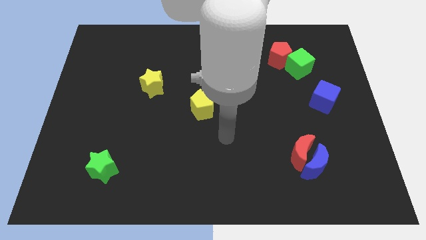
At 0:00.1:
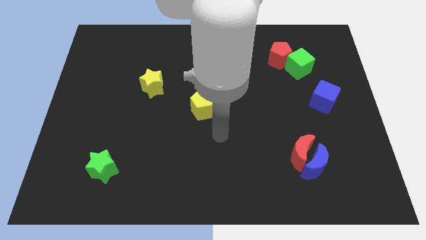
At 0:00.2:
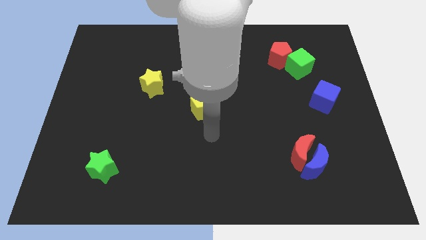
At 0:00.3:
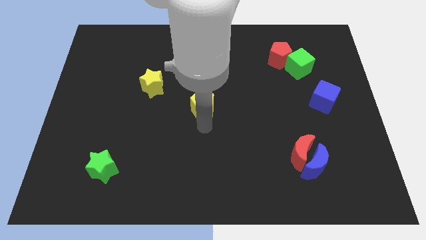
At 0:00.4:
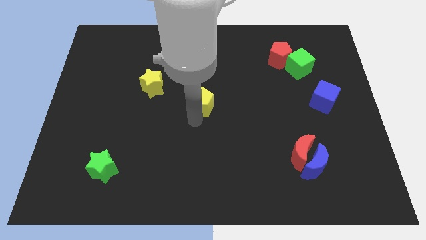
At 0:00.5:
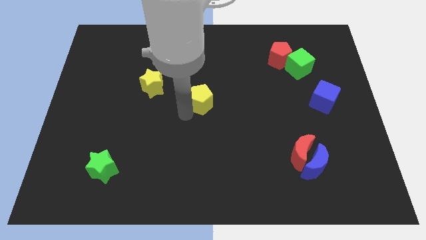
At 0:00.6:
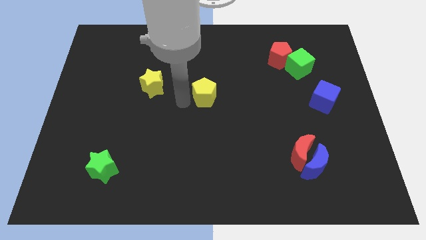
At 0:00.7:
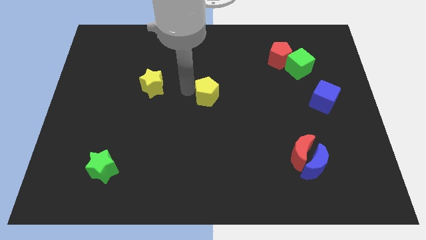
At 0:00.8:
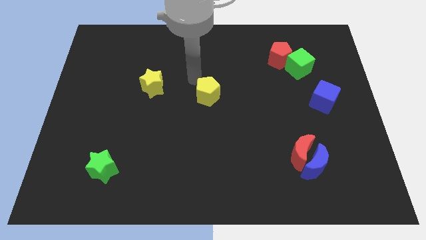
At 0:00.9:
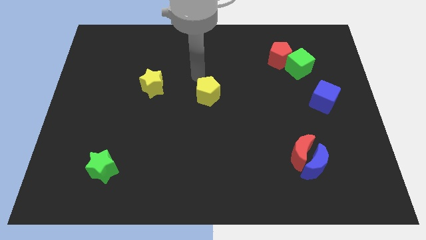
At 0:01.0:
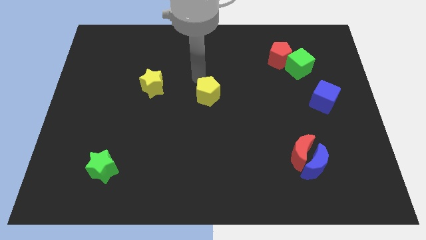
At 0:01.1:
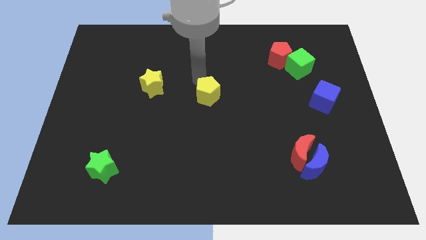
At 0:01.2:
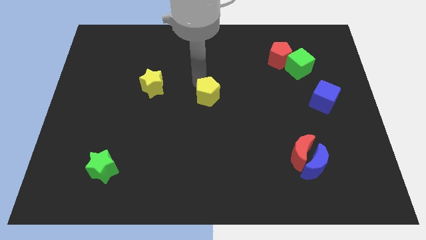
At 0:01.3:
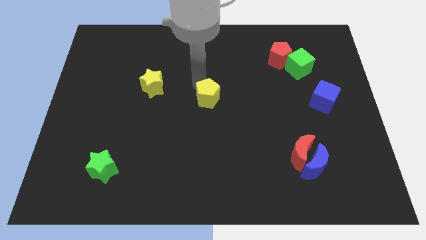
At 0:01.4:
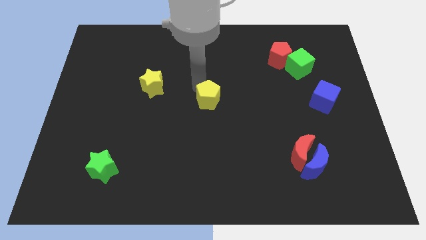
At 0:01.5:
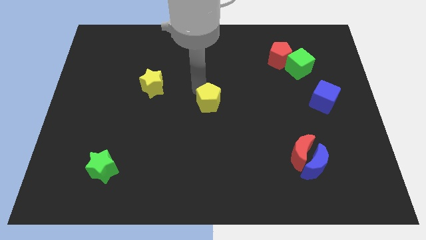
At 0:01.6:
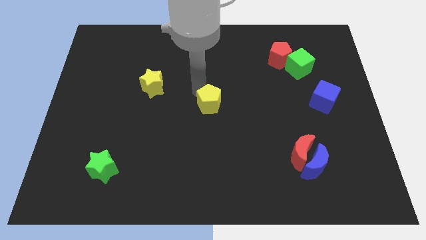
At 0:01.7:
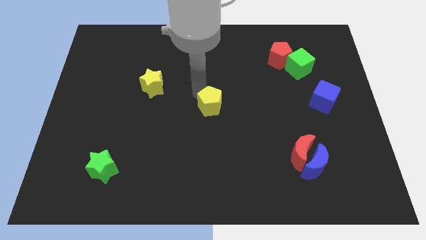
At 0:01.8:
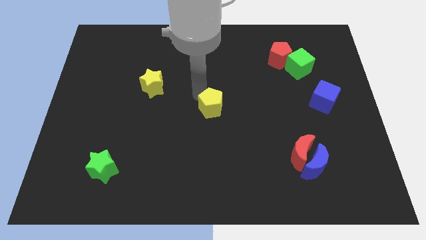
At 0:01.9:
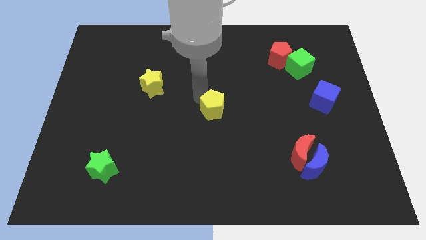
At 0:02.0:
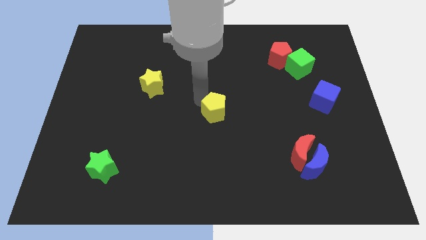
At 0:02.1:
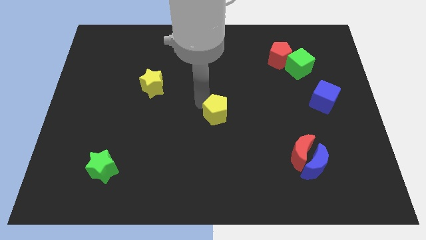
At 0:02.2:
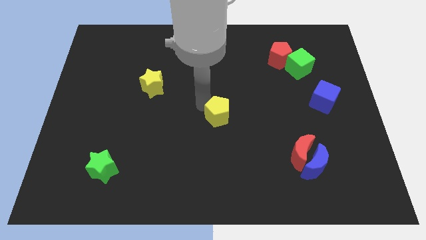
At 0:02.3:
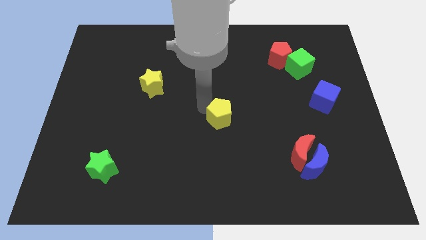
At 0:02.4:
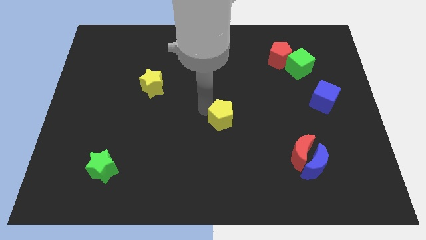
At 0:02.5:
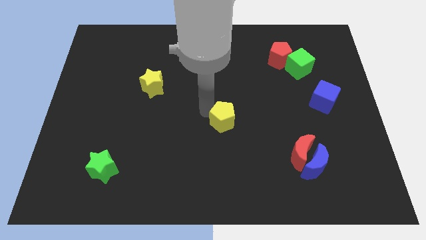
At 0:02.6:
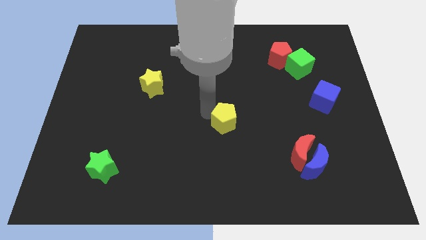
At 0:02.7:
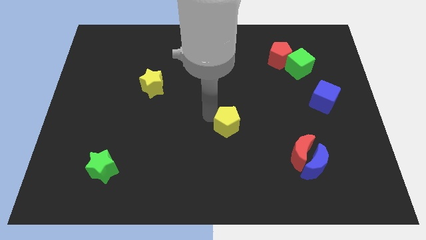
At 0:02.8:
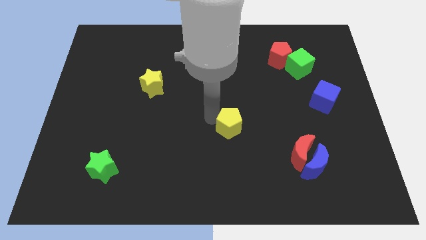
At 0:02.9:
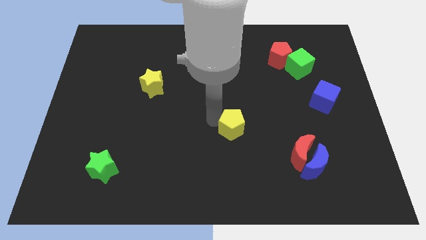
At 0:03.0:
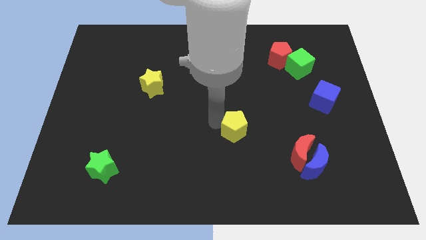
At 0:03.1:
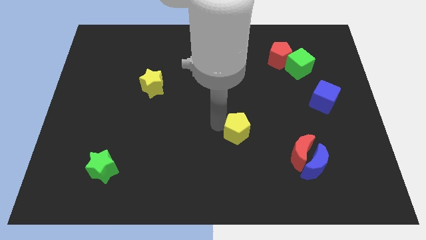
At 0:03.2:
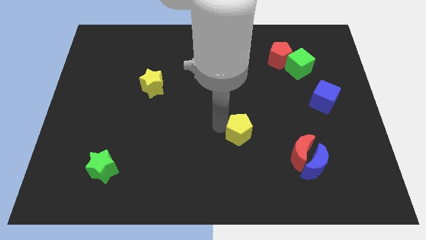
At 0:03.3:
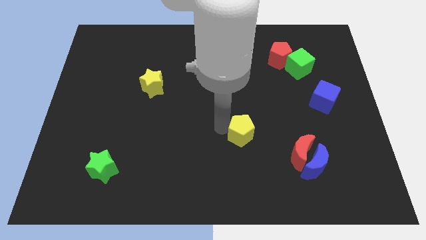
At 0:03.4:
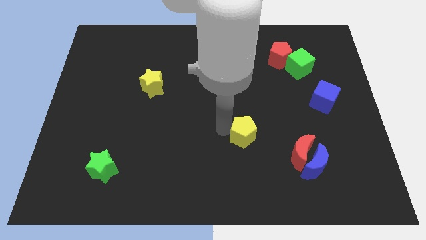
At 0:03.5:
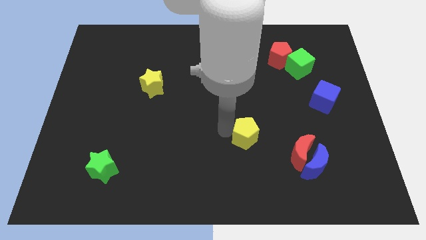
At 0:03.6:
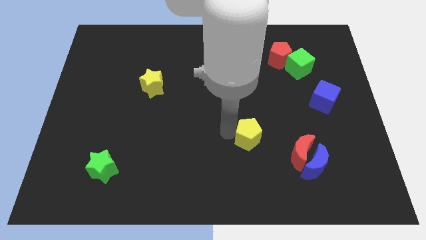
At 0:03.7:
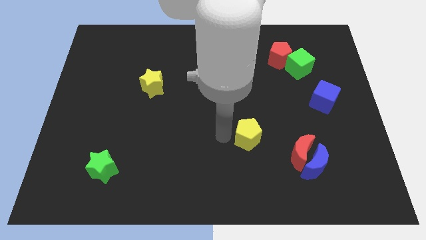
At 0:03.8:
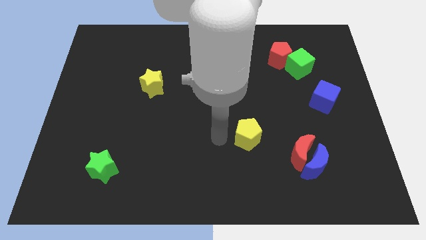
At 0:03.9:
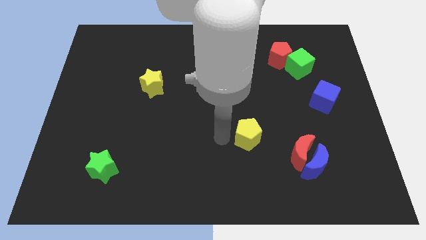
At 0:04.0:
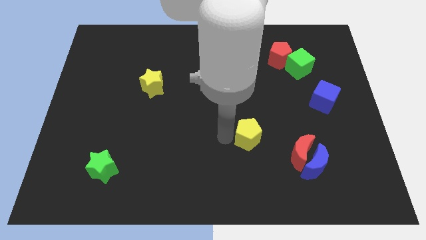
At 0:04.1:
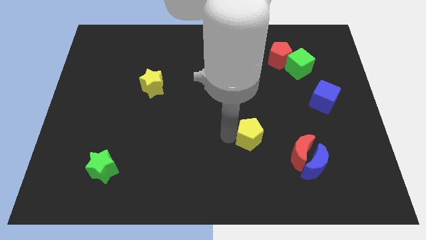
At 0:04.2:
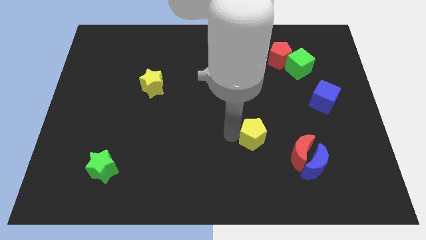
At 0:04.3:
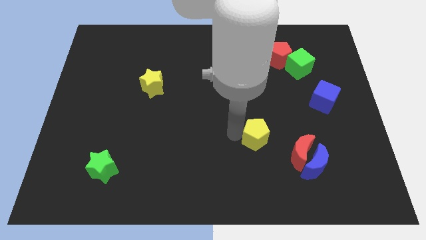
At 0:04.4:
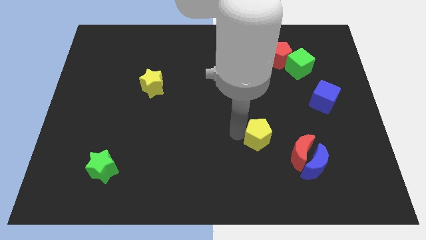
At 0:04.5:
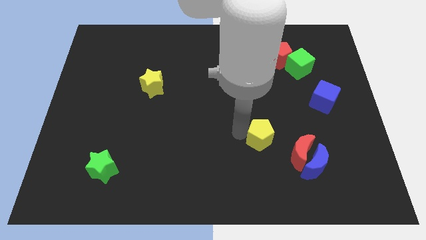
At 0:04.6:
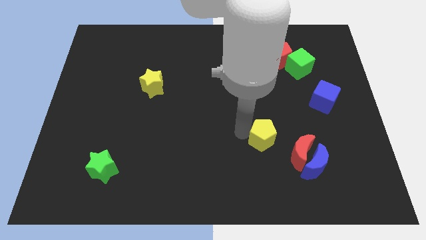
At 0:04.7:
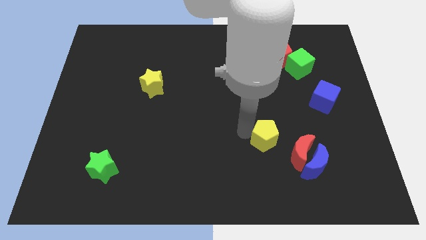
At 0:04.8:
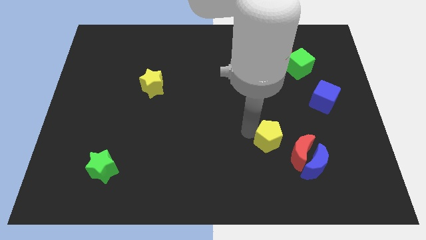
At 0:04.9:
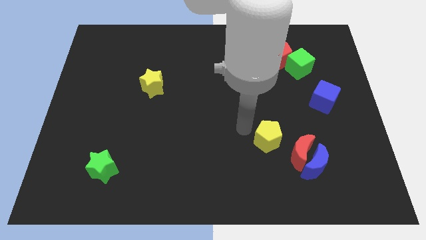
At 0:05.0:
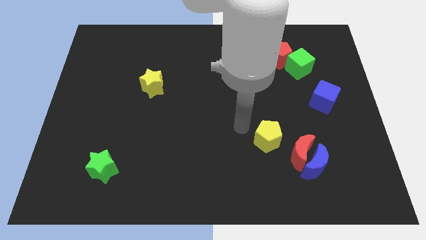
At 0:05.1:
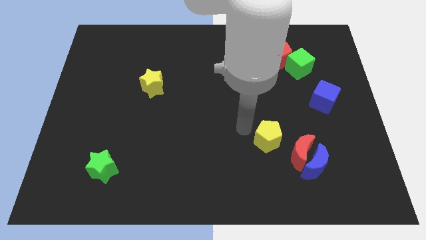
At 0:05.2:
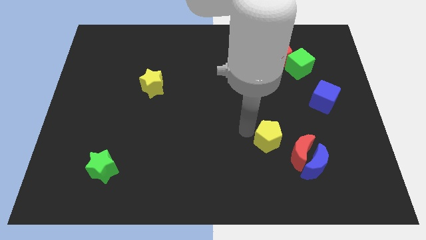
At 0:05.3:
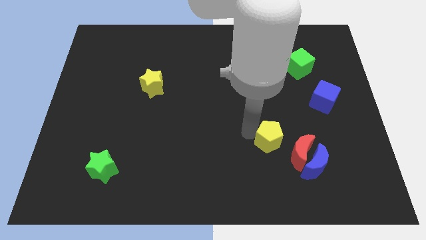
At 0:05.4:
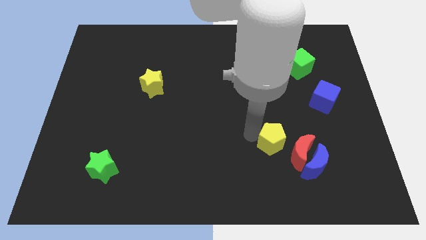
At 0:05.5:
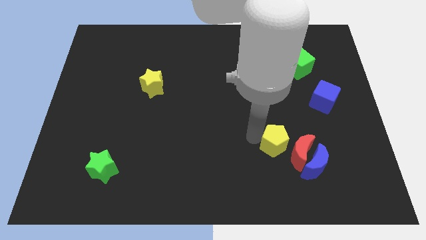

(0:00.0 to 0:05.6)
move the yellow pentagon next to the red moon

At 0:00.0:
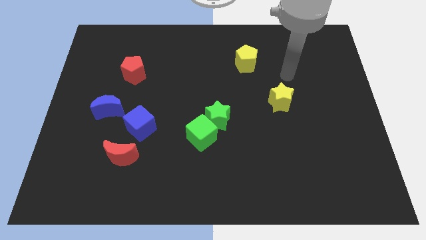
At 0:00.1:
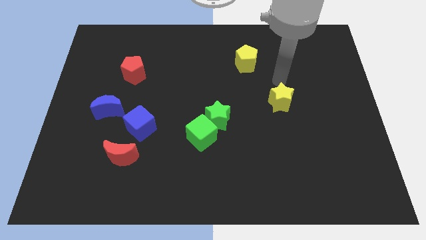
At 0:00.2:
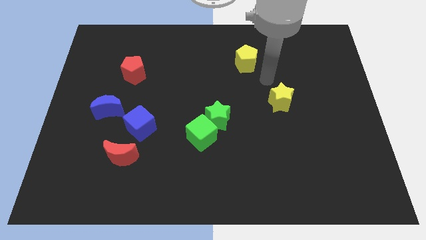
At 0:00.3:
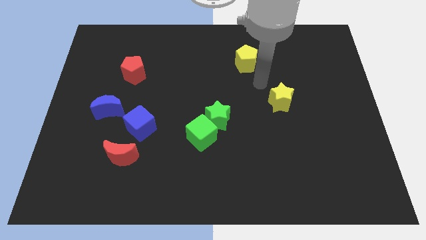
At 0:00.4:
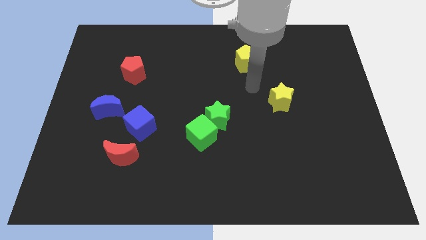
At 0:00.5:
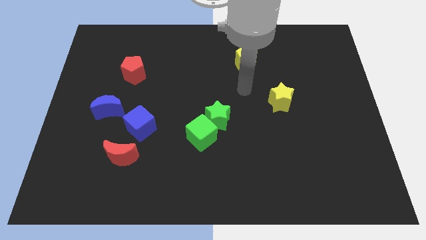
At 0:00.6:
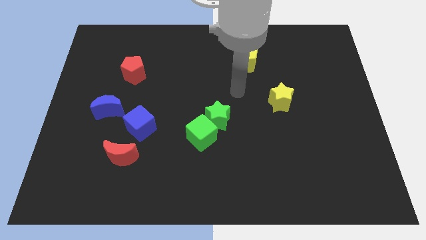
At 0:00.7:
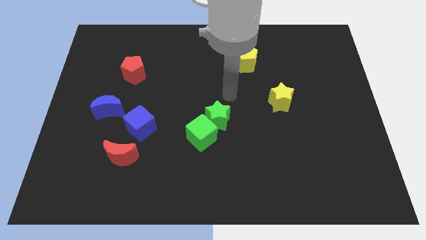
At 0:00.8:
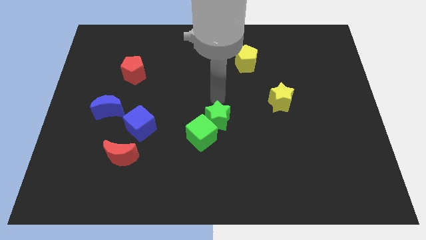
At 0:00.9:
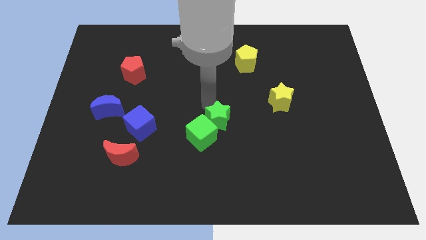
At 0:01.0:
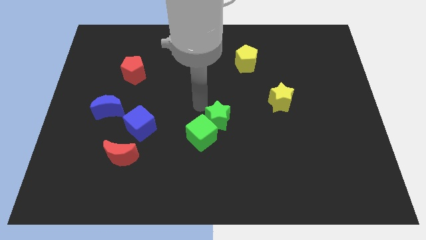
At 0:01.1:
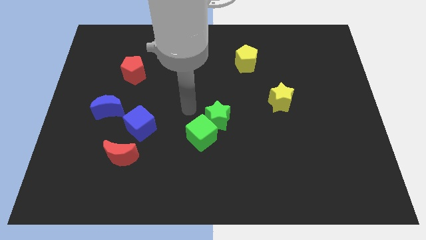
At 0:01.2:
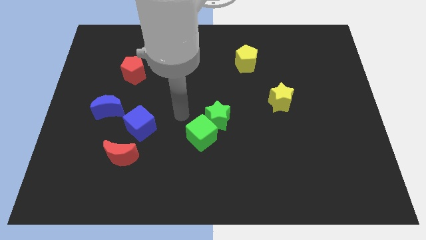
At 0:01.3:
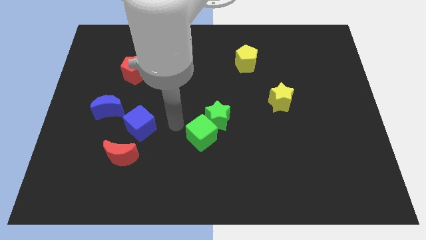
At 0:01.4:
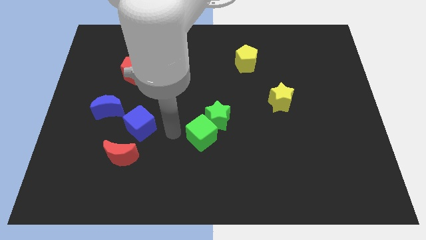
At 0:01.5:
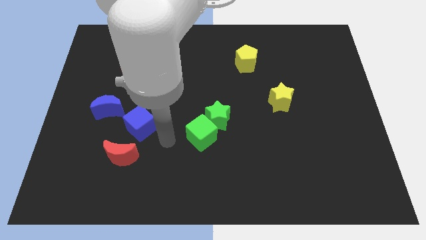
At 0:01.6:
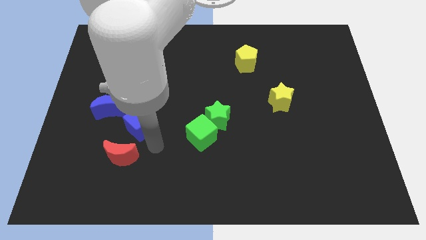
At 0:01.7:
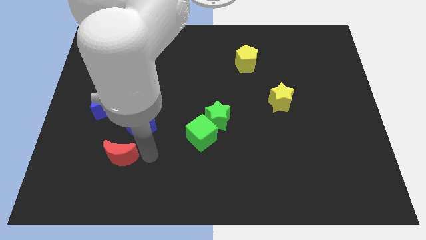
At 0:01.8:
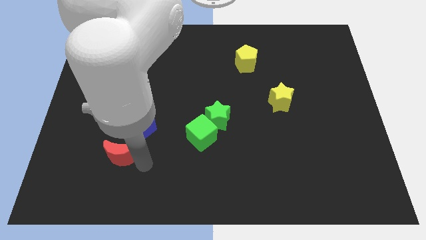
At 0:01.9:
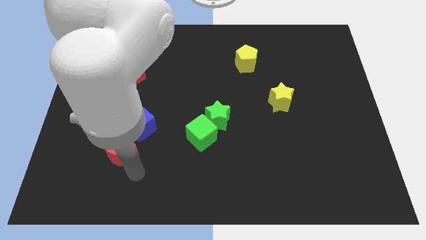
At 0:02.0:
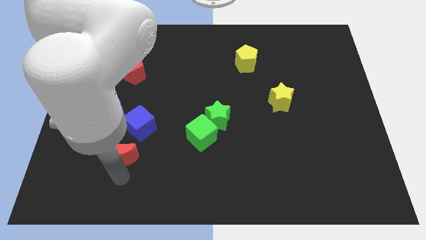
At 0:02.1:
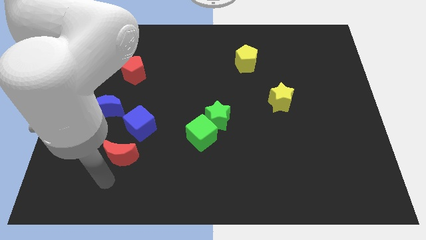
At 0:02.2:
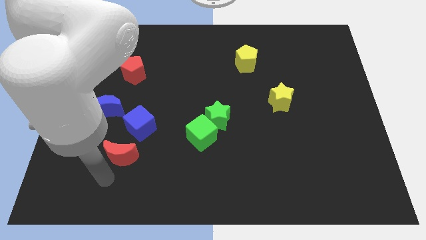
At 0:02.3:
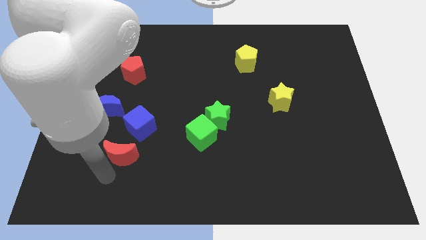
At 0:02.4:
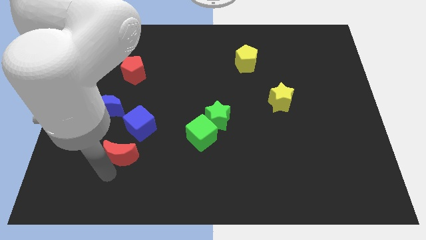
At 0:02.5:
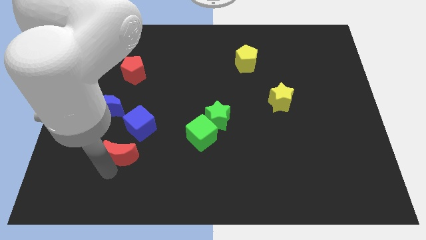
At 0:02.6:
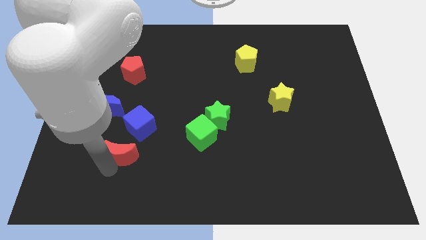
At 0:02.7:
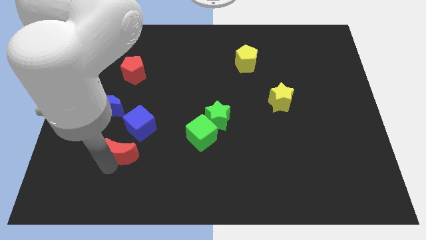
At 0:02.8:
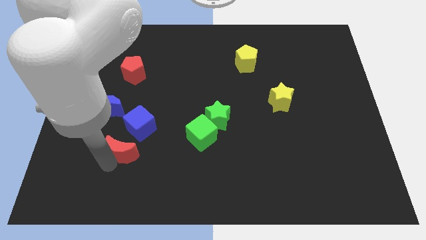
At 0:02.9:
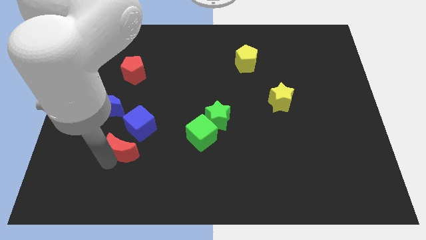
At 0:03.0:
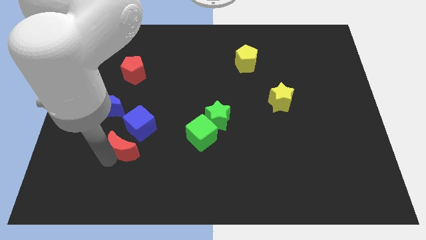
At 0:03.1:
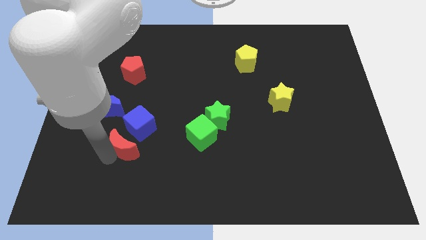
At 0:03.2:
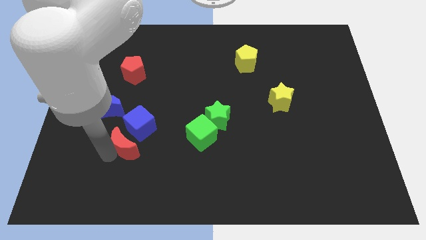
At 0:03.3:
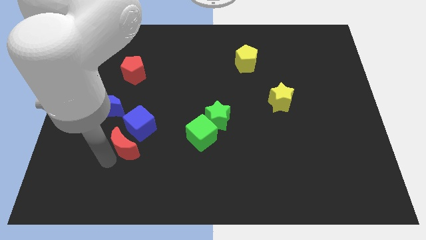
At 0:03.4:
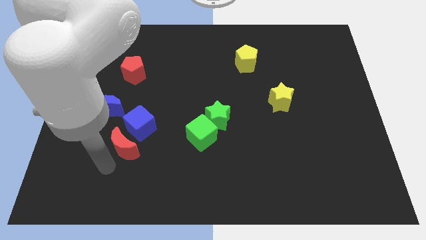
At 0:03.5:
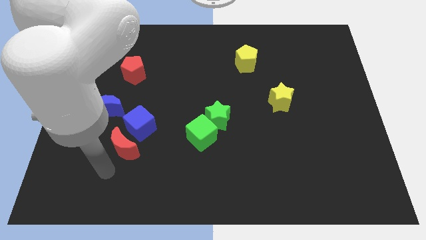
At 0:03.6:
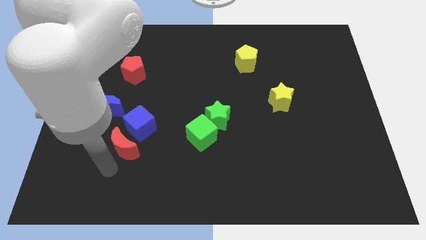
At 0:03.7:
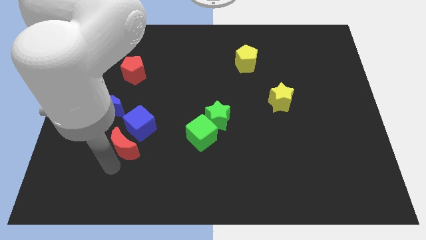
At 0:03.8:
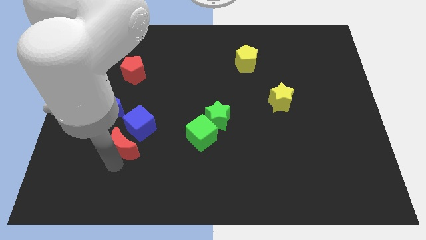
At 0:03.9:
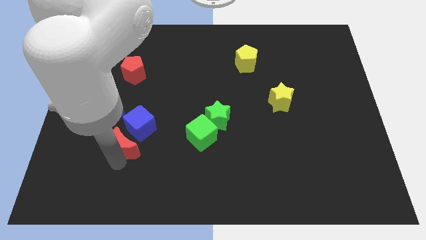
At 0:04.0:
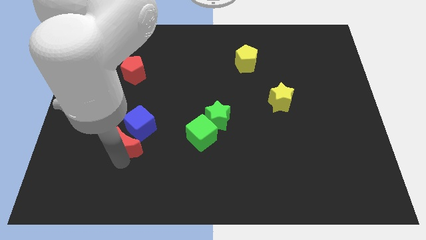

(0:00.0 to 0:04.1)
move the red moon towards the blue cube
